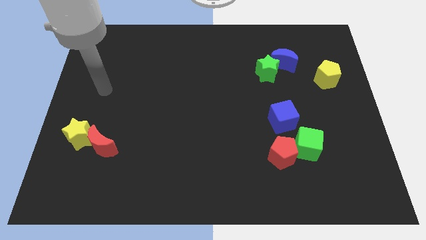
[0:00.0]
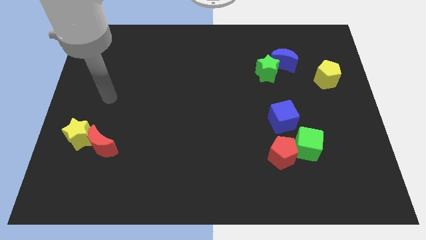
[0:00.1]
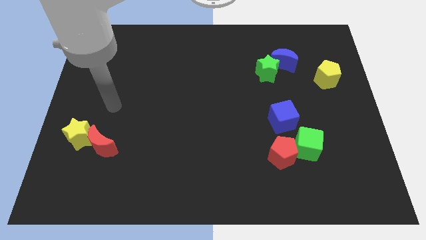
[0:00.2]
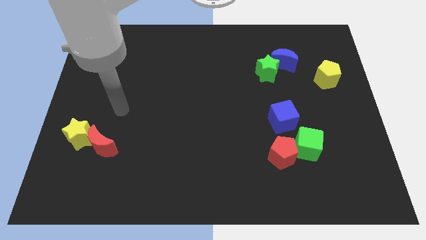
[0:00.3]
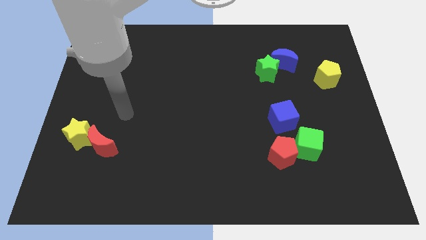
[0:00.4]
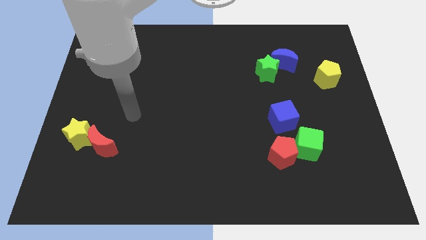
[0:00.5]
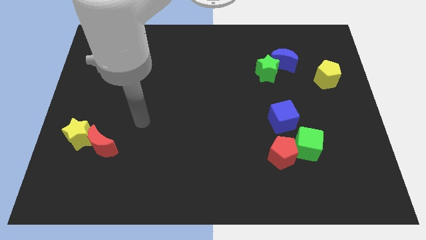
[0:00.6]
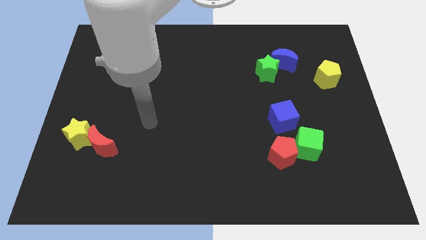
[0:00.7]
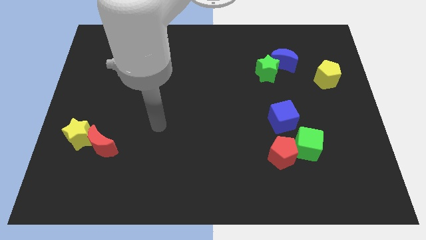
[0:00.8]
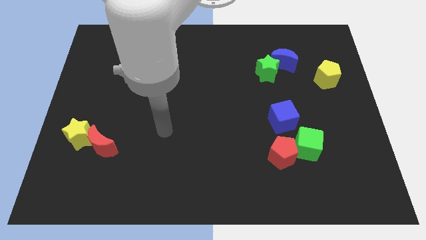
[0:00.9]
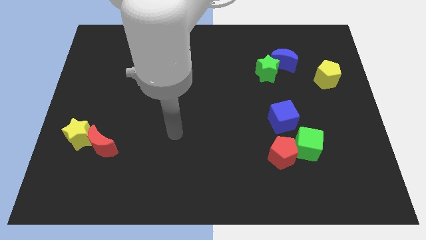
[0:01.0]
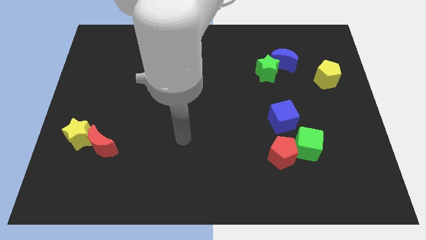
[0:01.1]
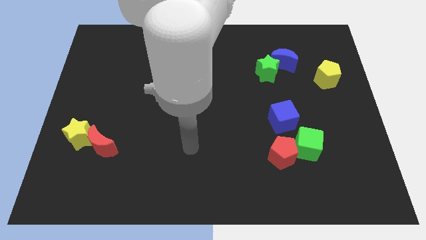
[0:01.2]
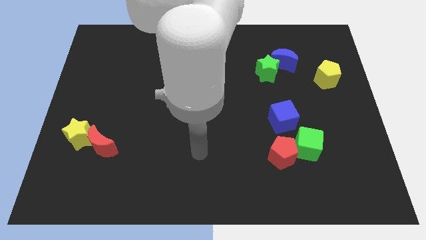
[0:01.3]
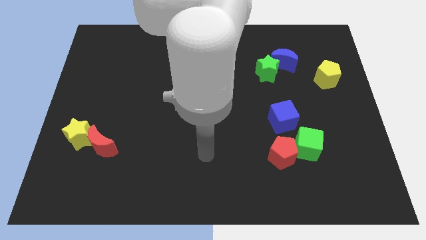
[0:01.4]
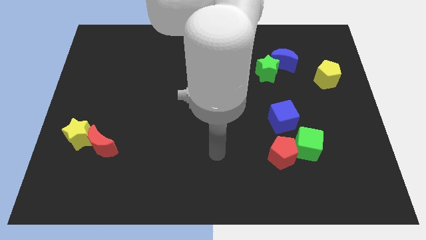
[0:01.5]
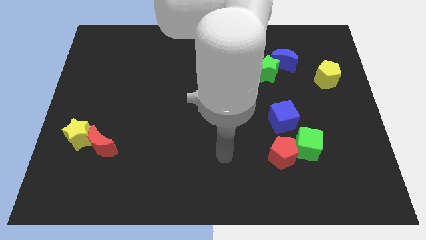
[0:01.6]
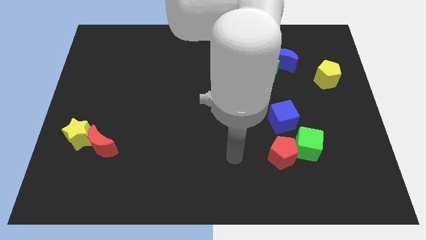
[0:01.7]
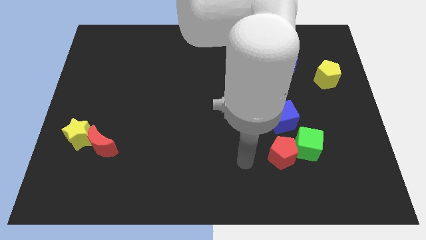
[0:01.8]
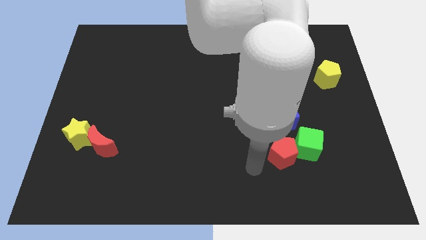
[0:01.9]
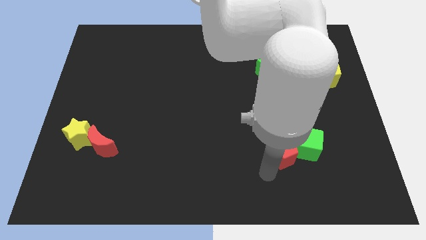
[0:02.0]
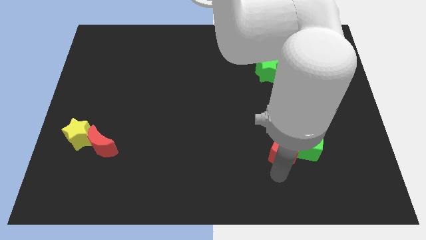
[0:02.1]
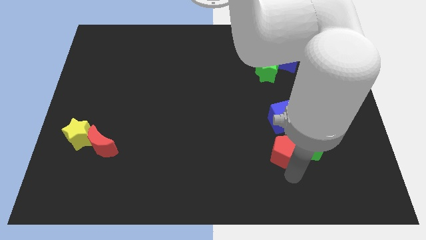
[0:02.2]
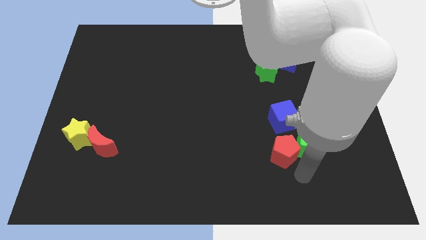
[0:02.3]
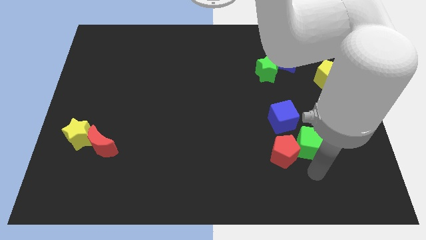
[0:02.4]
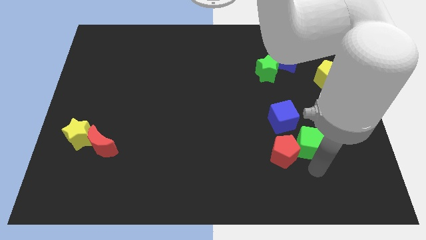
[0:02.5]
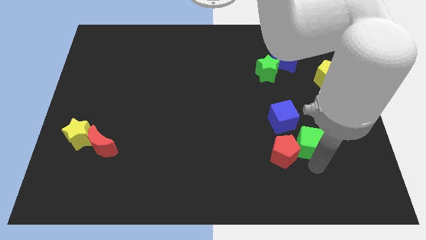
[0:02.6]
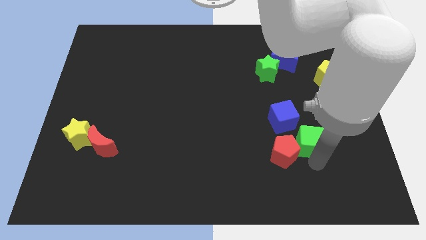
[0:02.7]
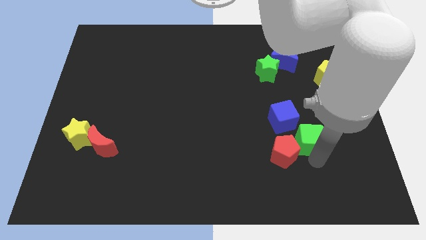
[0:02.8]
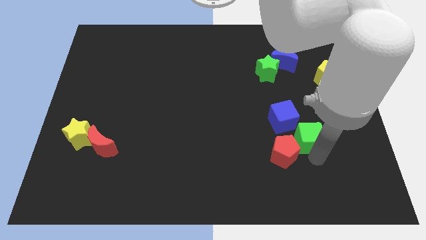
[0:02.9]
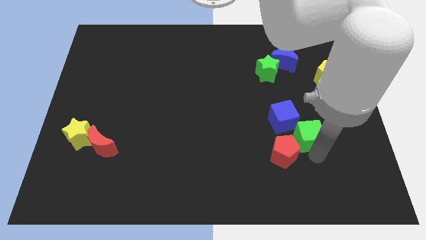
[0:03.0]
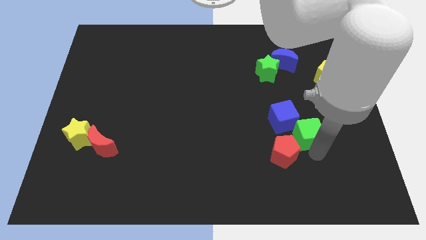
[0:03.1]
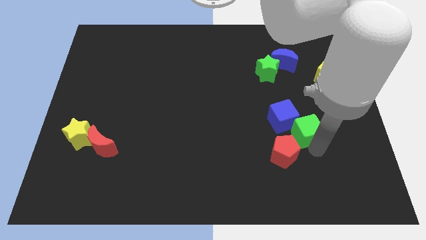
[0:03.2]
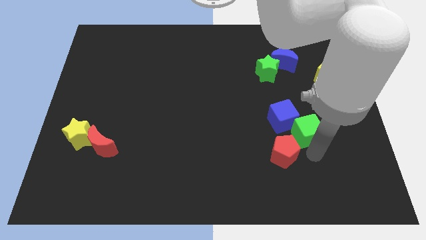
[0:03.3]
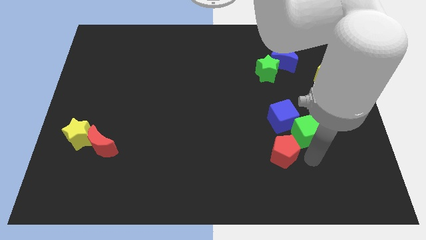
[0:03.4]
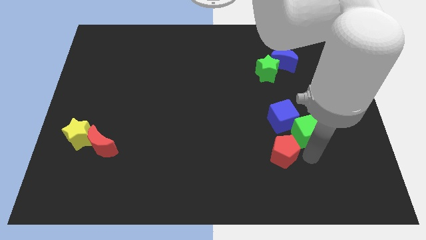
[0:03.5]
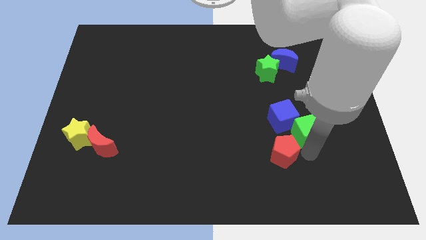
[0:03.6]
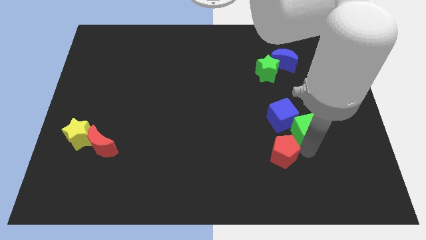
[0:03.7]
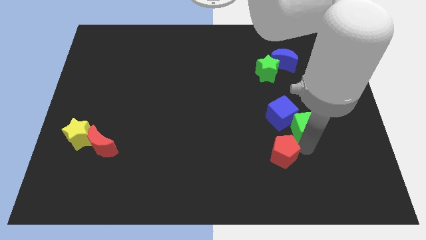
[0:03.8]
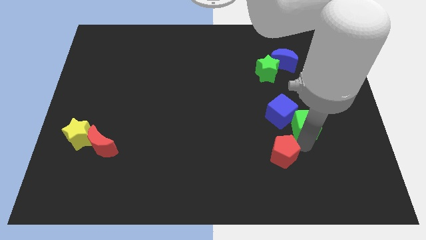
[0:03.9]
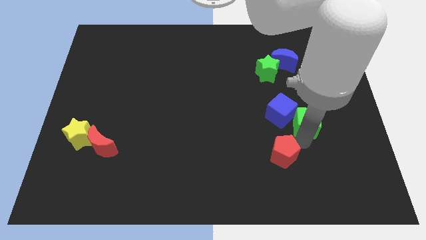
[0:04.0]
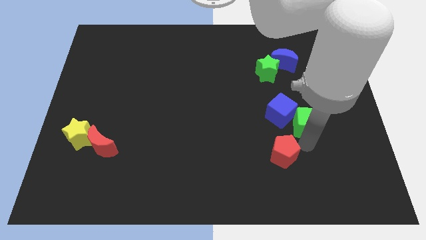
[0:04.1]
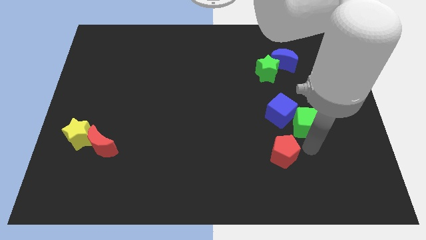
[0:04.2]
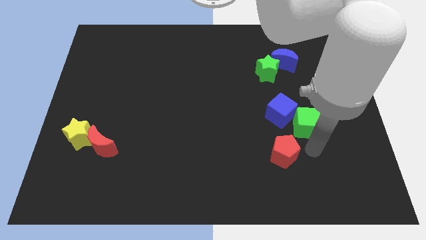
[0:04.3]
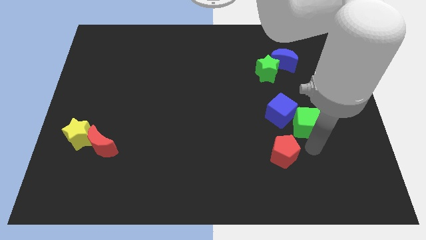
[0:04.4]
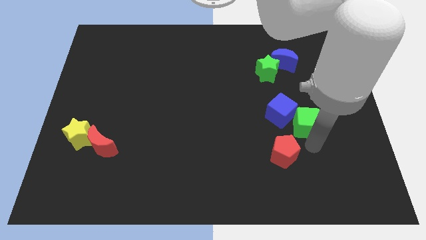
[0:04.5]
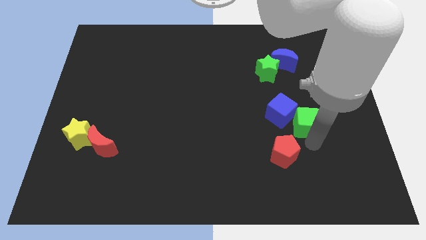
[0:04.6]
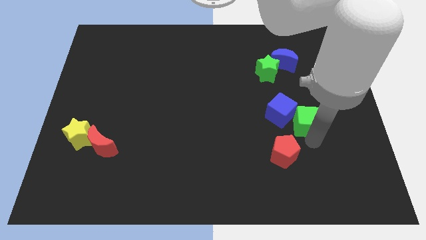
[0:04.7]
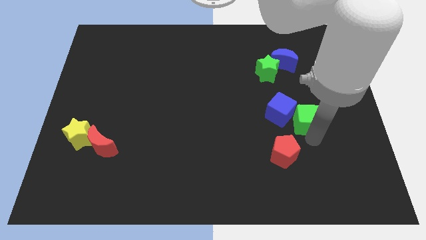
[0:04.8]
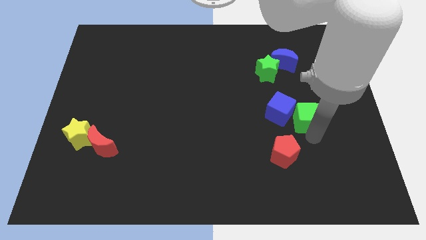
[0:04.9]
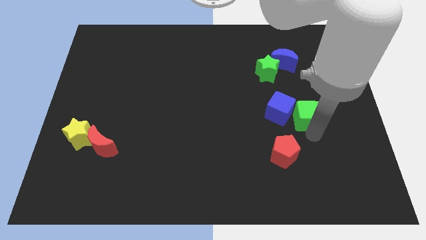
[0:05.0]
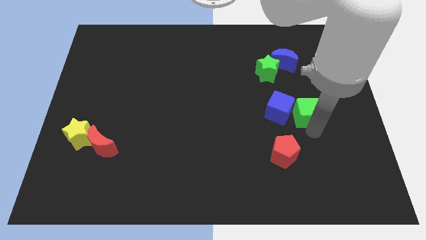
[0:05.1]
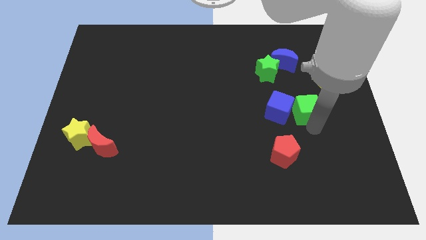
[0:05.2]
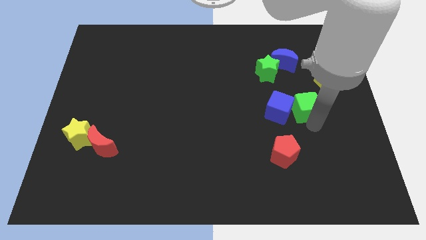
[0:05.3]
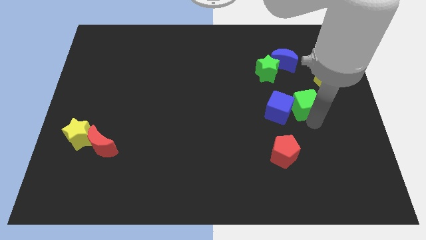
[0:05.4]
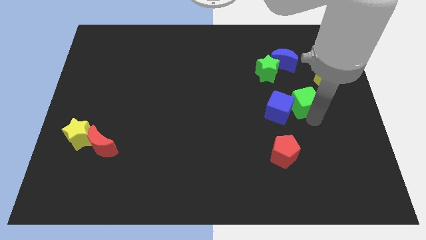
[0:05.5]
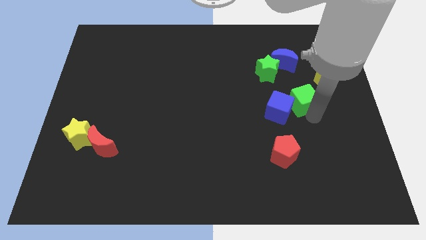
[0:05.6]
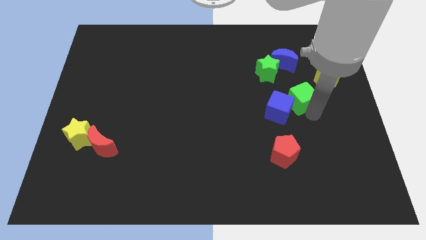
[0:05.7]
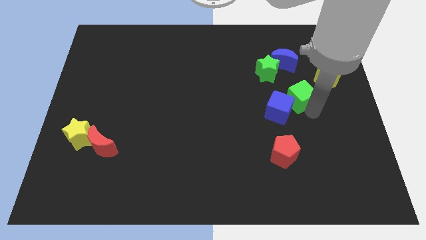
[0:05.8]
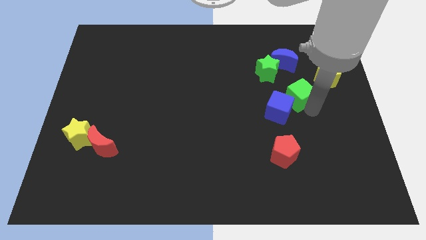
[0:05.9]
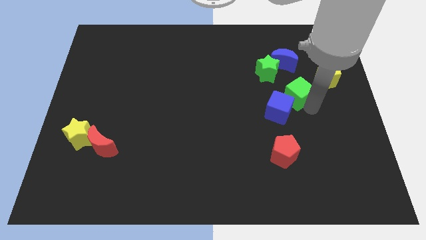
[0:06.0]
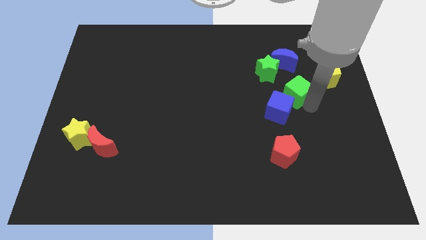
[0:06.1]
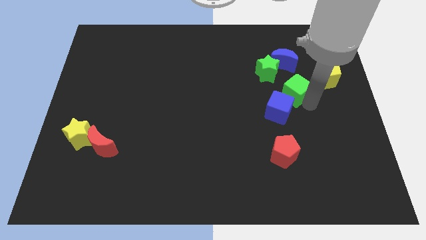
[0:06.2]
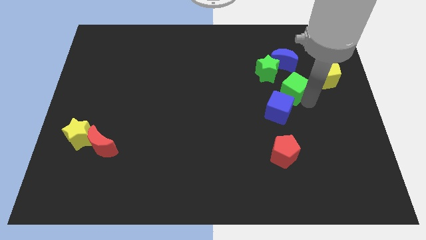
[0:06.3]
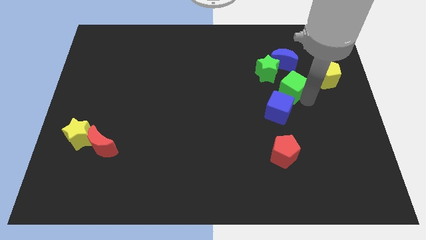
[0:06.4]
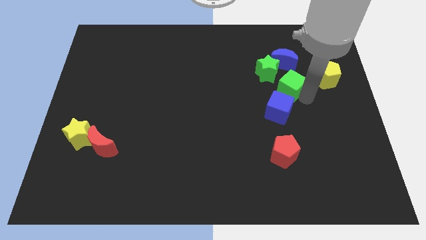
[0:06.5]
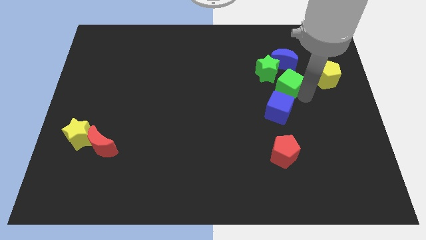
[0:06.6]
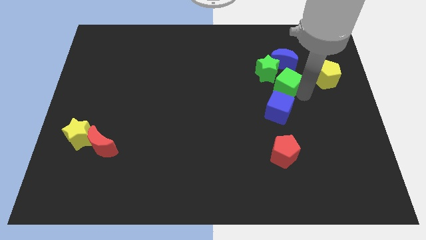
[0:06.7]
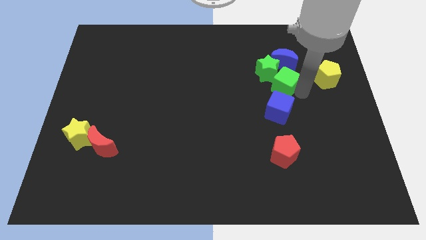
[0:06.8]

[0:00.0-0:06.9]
move the green cube towards the green star
